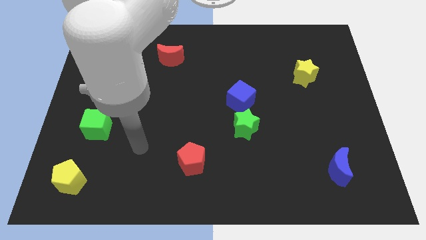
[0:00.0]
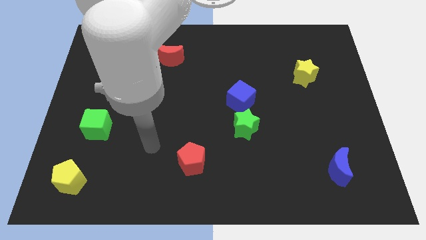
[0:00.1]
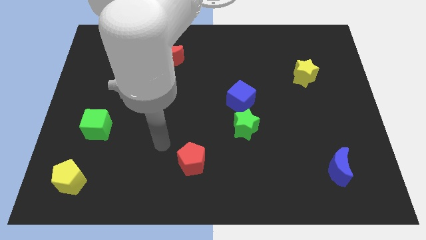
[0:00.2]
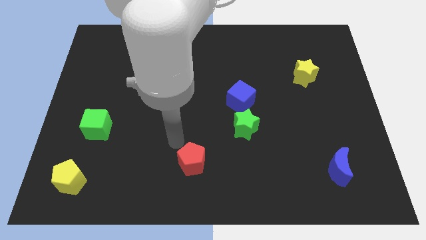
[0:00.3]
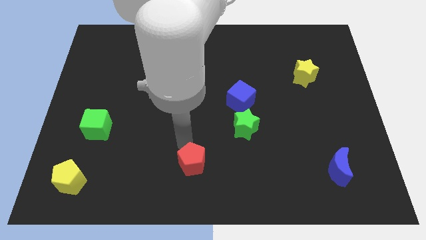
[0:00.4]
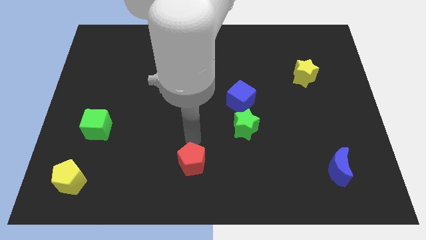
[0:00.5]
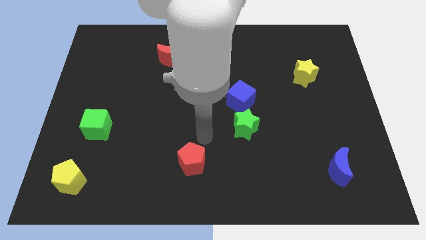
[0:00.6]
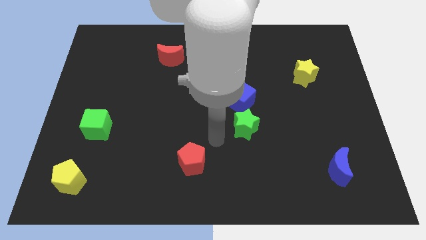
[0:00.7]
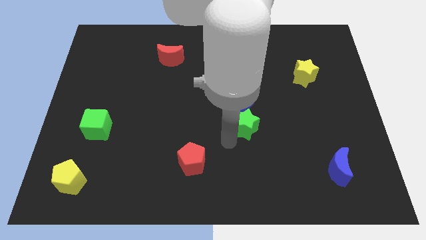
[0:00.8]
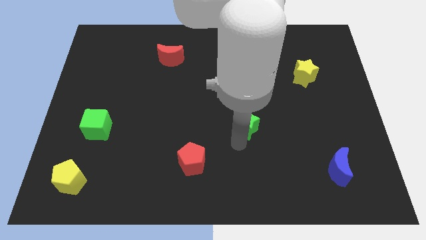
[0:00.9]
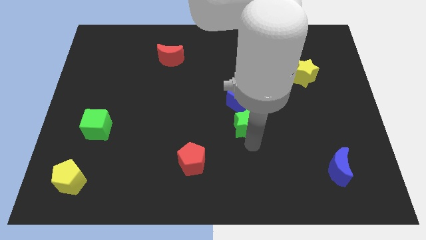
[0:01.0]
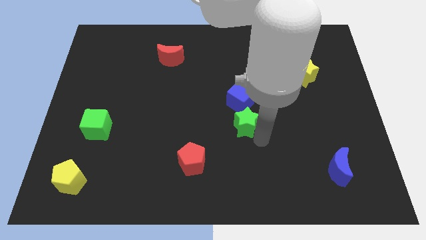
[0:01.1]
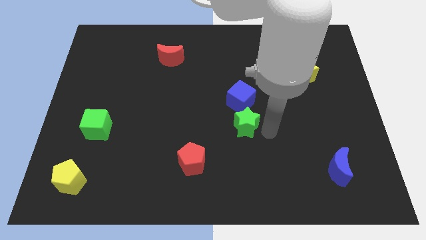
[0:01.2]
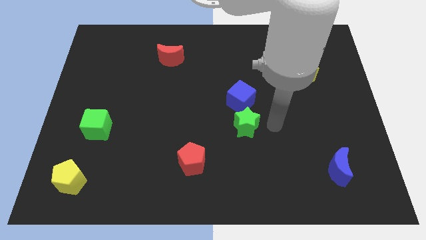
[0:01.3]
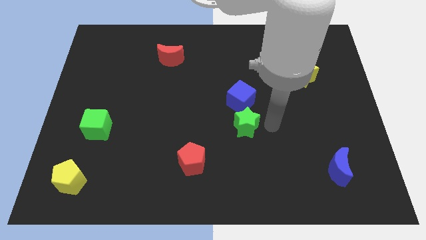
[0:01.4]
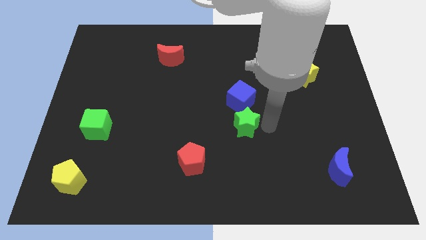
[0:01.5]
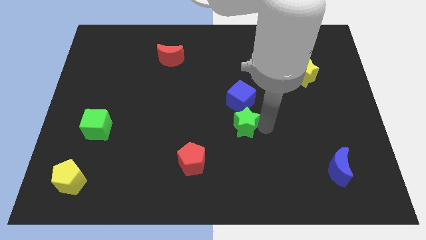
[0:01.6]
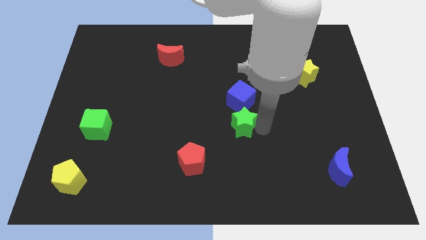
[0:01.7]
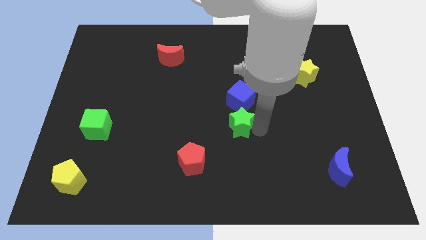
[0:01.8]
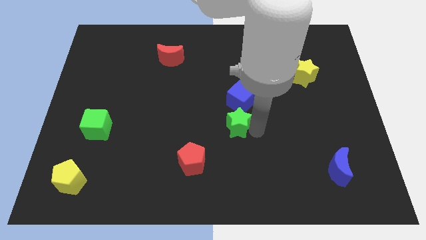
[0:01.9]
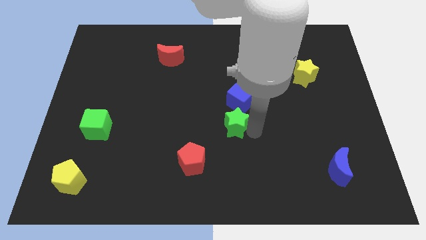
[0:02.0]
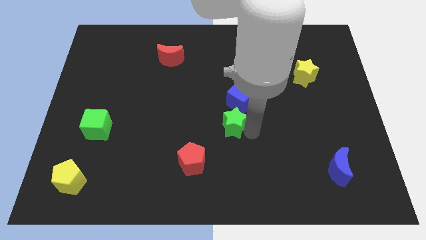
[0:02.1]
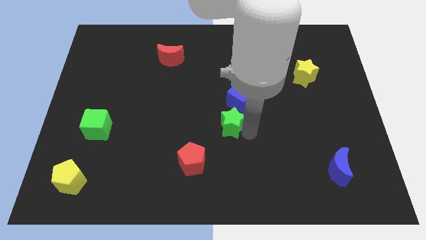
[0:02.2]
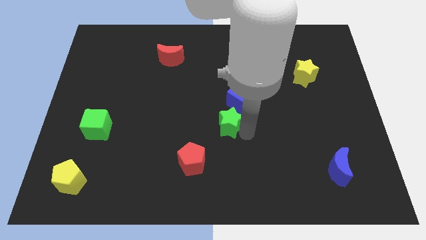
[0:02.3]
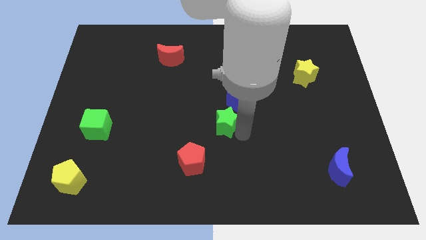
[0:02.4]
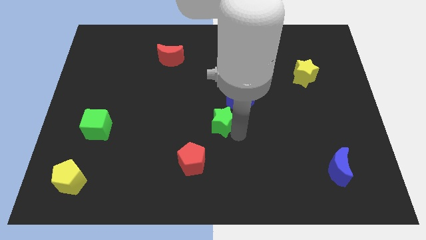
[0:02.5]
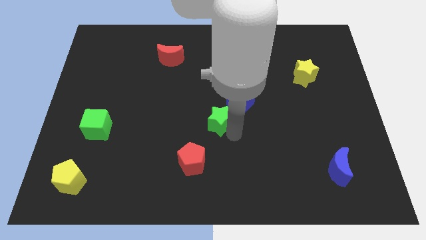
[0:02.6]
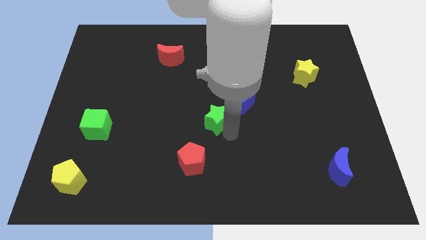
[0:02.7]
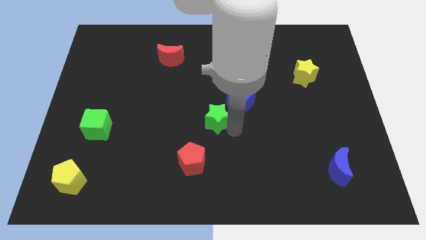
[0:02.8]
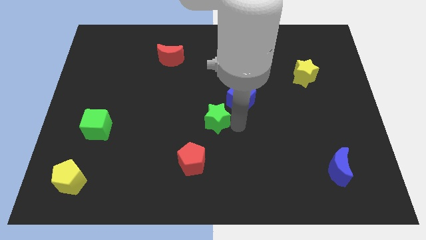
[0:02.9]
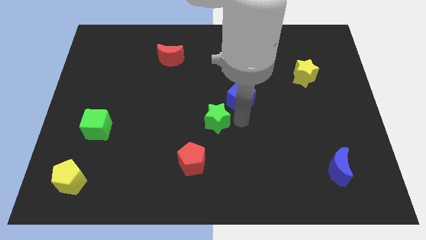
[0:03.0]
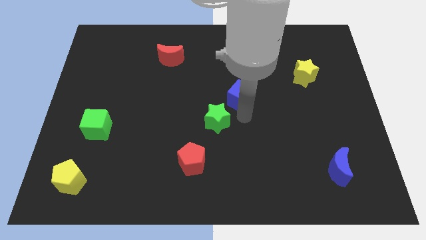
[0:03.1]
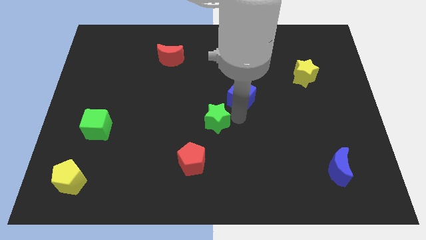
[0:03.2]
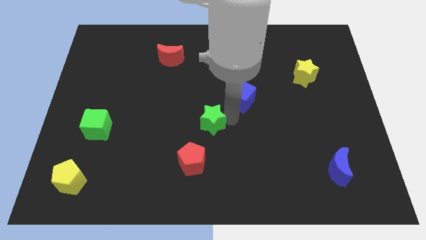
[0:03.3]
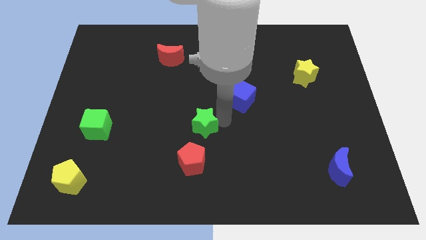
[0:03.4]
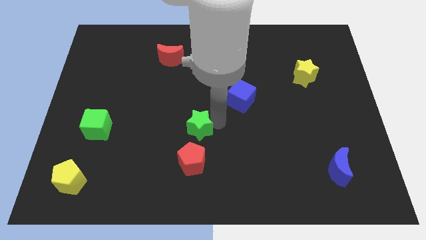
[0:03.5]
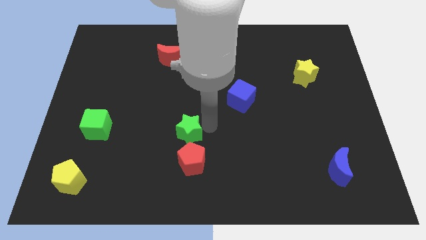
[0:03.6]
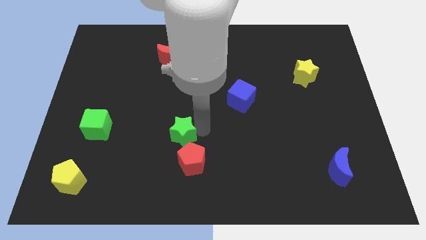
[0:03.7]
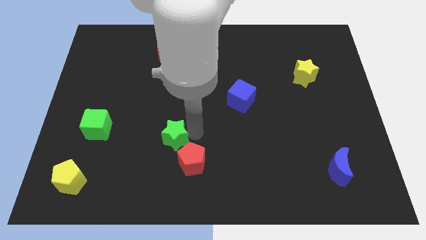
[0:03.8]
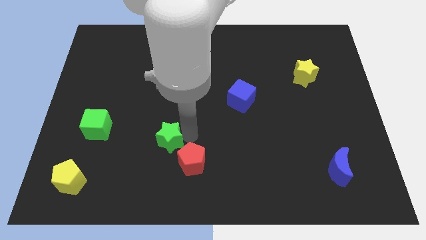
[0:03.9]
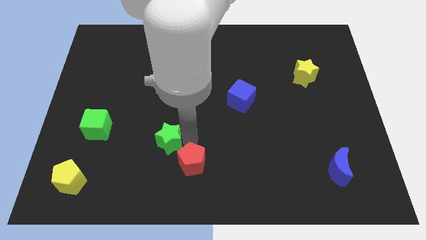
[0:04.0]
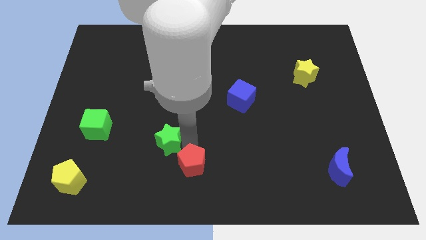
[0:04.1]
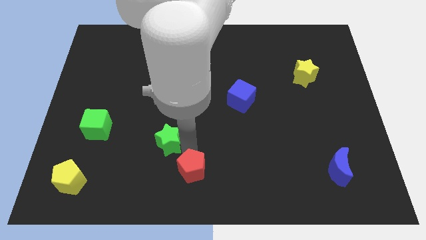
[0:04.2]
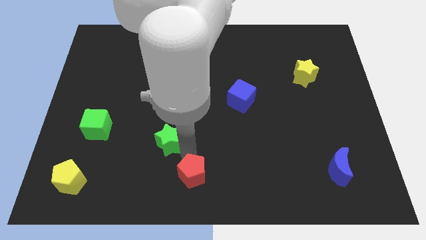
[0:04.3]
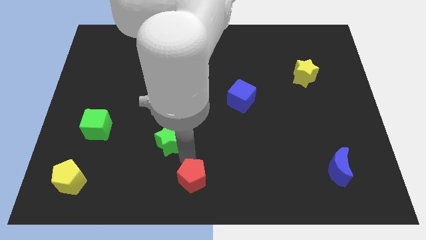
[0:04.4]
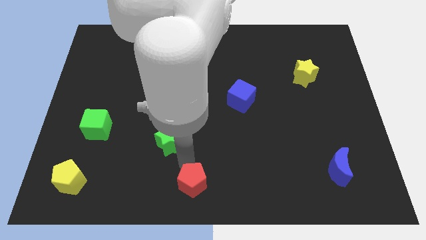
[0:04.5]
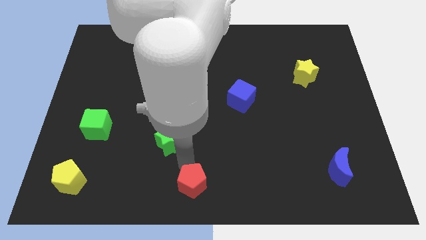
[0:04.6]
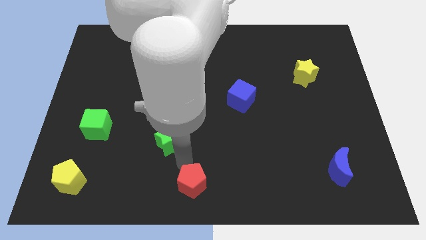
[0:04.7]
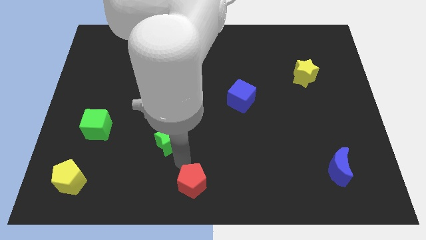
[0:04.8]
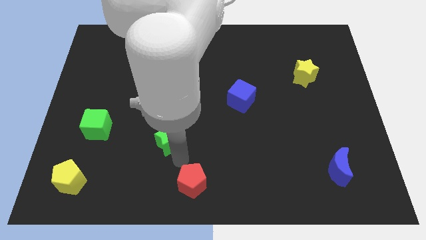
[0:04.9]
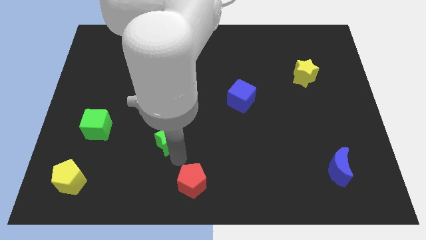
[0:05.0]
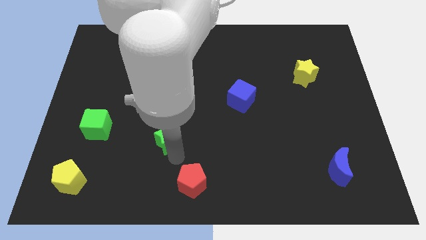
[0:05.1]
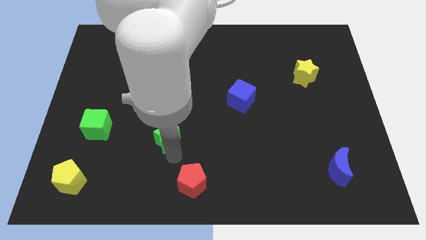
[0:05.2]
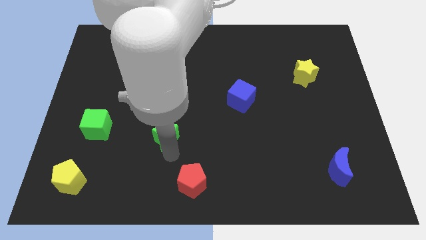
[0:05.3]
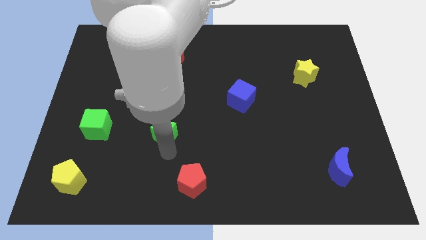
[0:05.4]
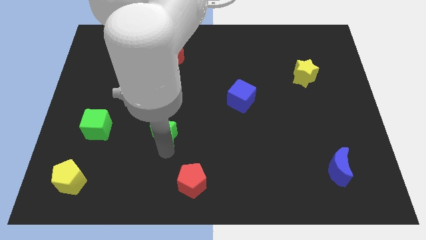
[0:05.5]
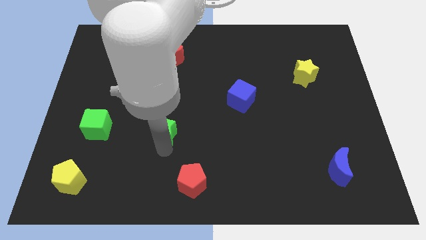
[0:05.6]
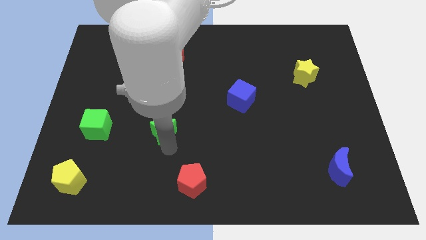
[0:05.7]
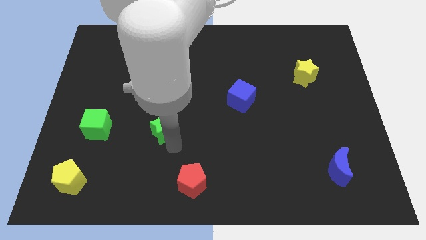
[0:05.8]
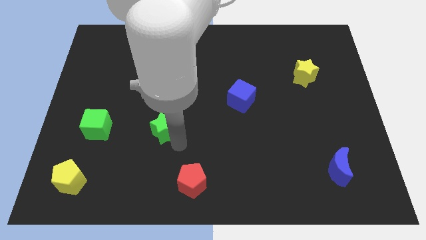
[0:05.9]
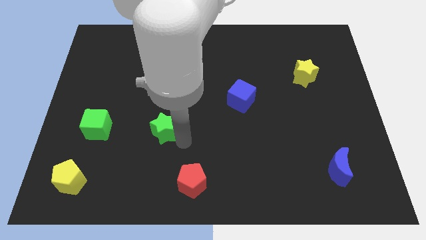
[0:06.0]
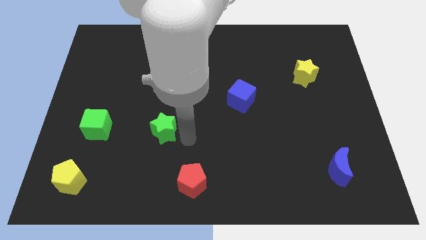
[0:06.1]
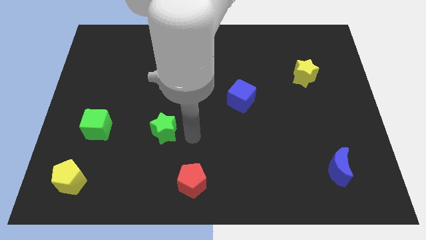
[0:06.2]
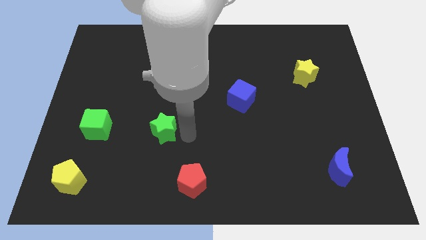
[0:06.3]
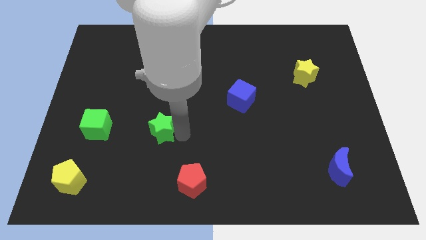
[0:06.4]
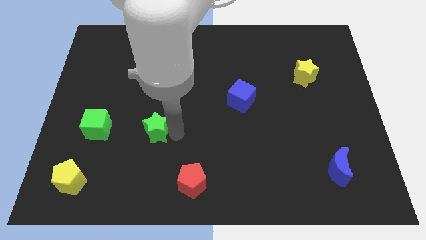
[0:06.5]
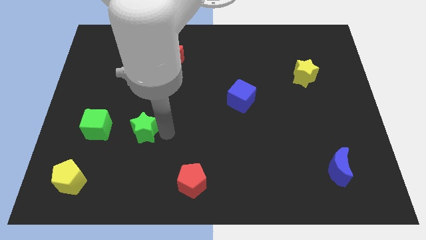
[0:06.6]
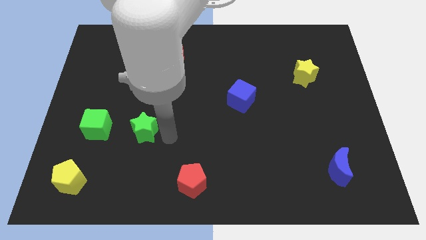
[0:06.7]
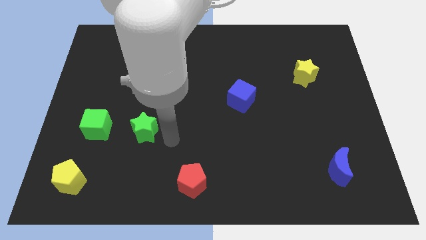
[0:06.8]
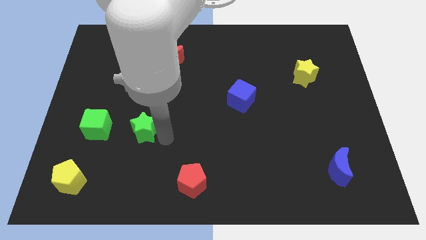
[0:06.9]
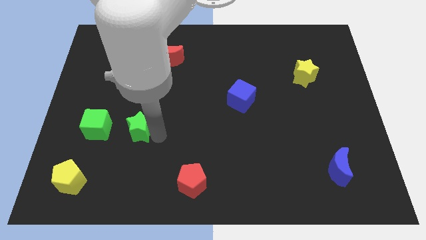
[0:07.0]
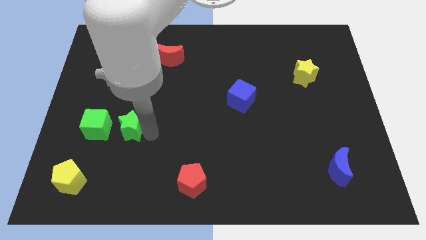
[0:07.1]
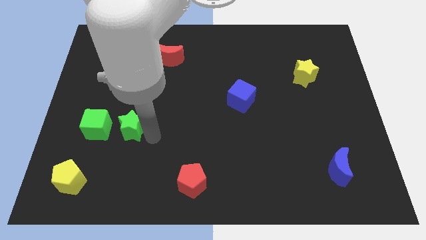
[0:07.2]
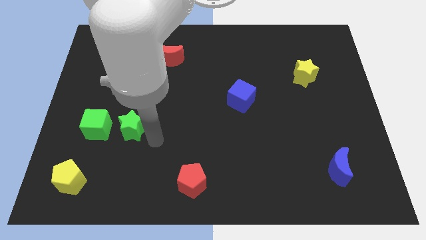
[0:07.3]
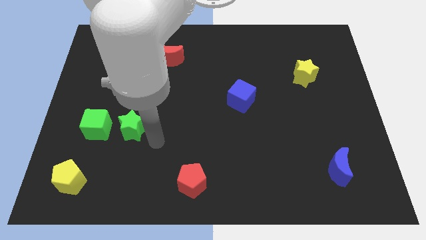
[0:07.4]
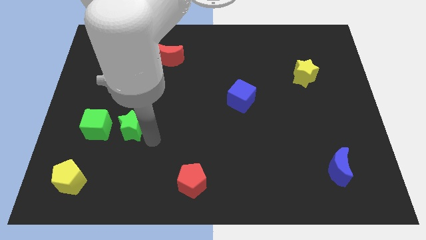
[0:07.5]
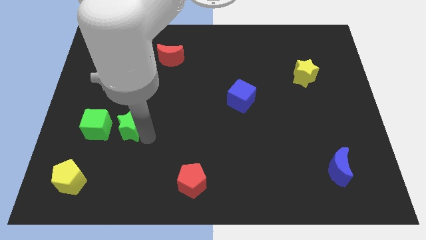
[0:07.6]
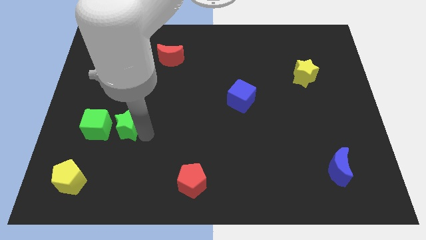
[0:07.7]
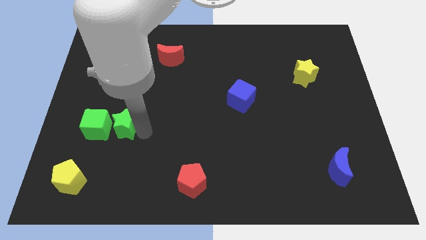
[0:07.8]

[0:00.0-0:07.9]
slide the green star next to the green cube
